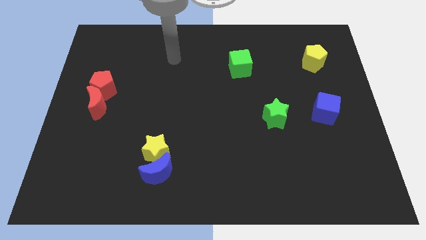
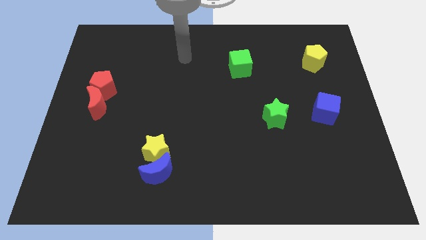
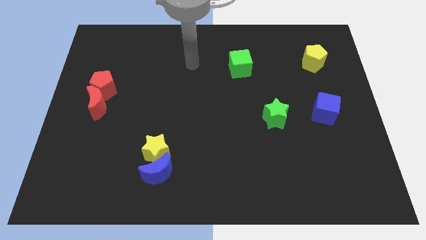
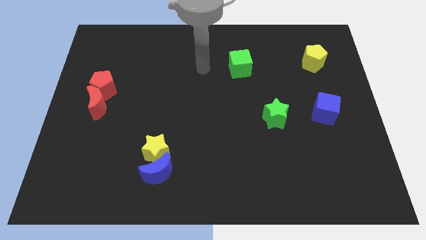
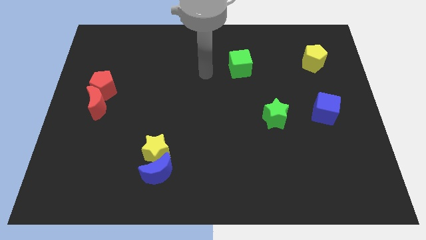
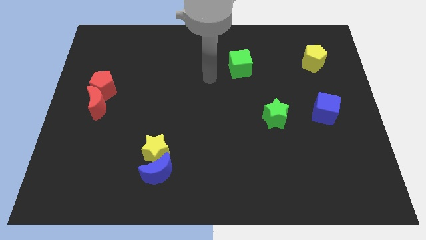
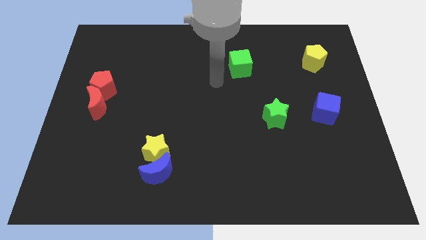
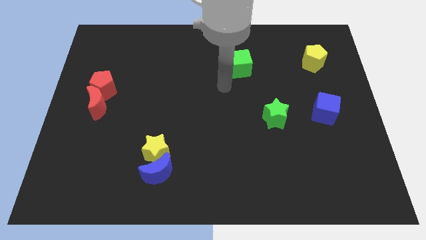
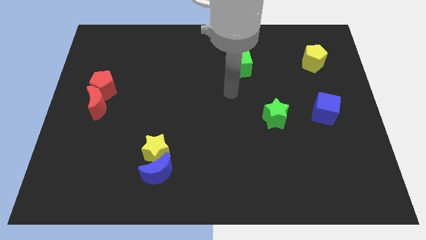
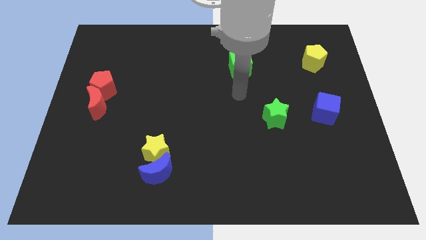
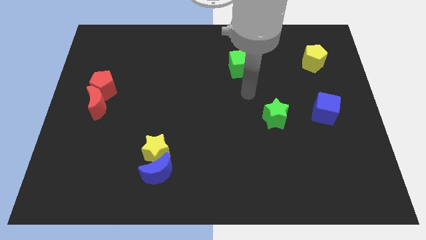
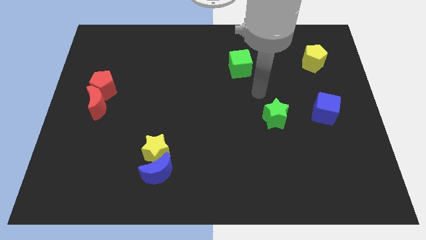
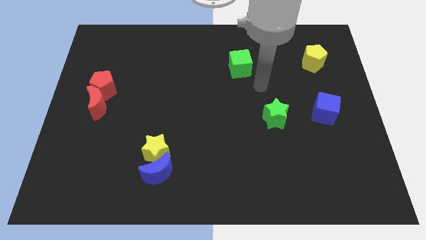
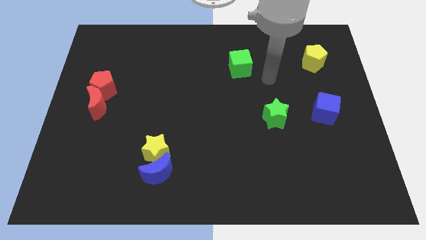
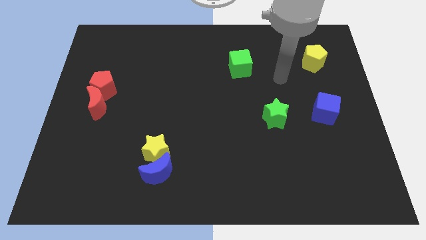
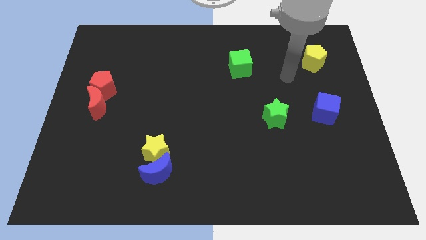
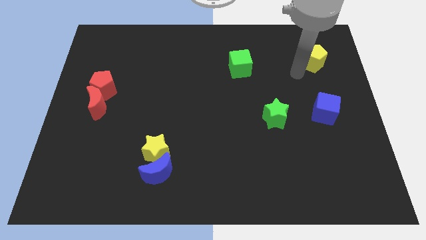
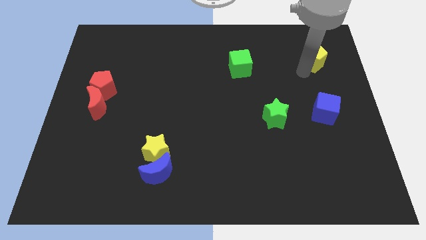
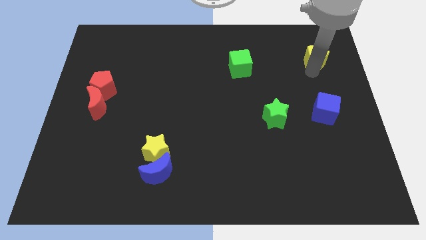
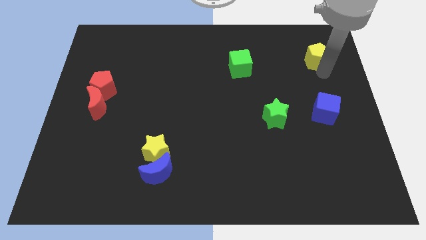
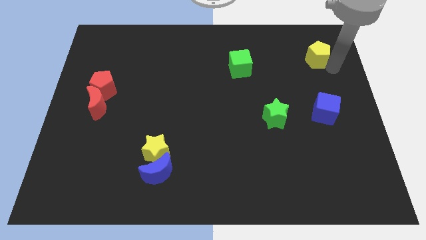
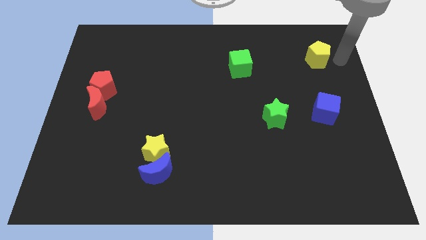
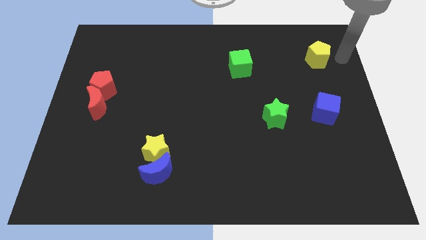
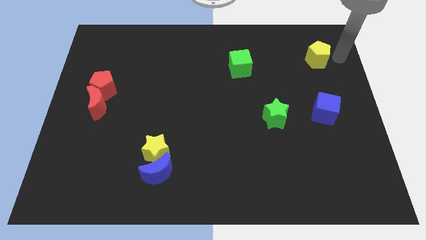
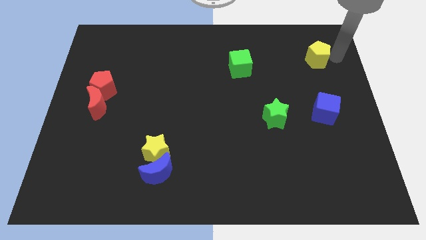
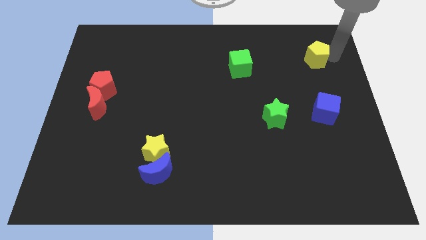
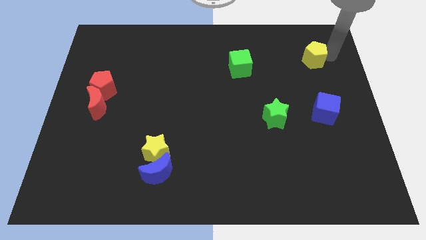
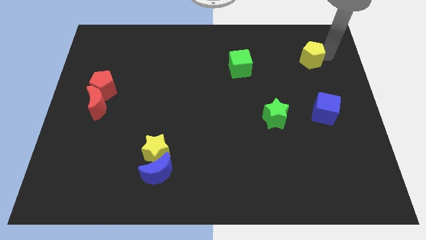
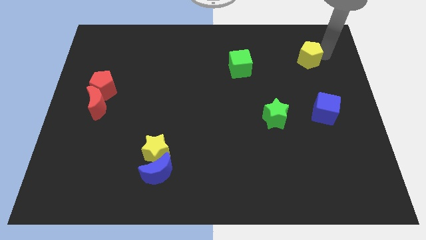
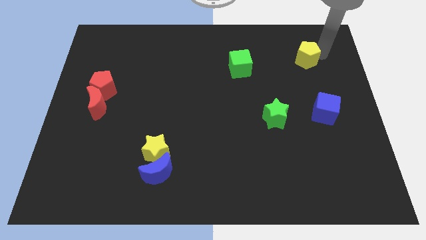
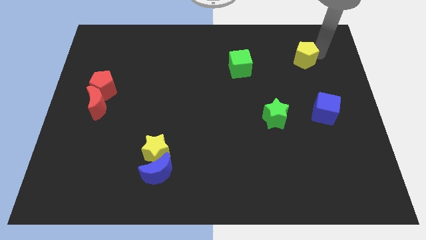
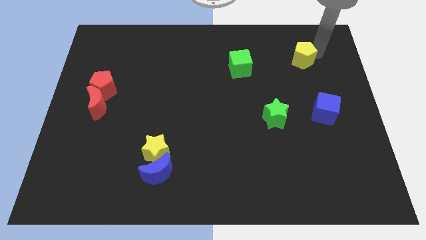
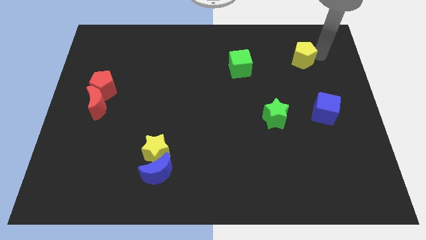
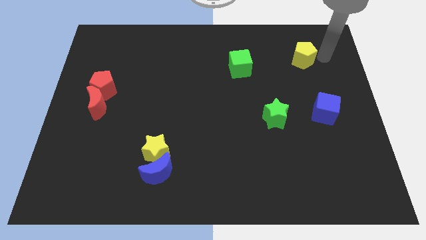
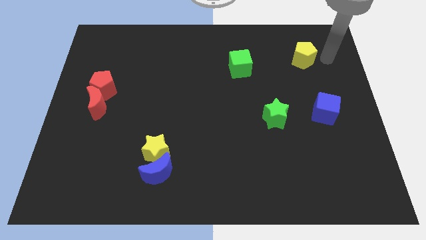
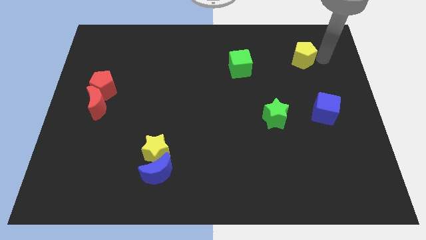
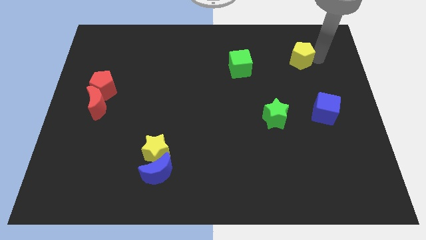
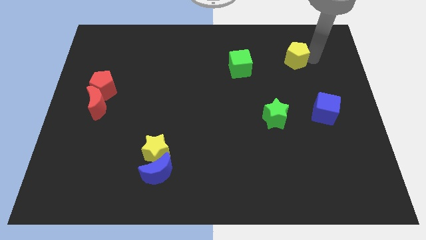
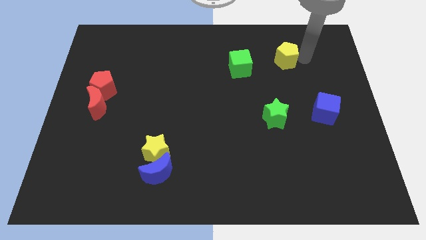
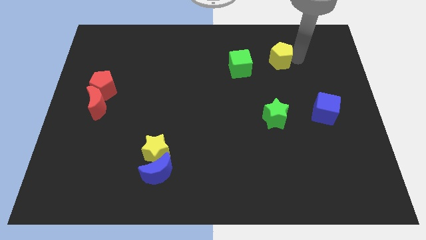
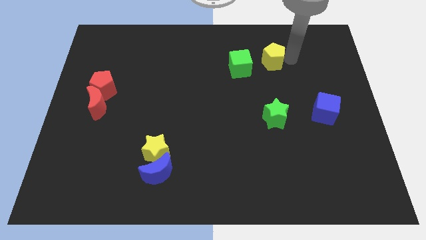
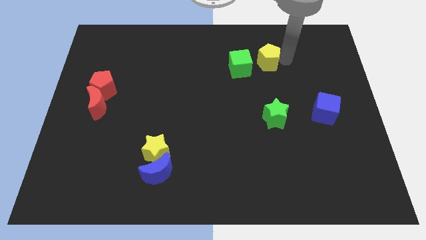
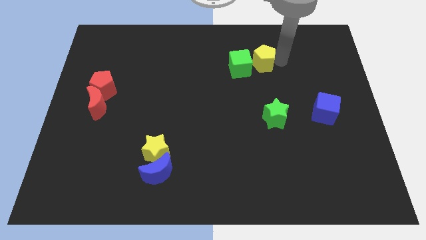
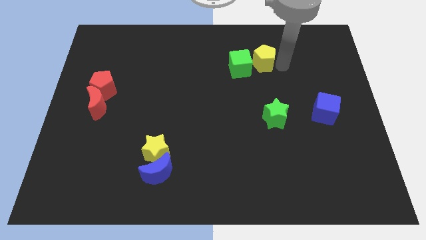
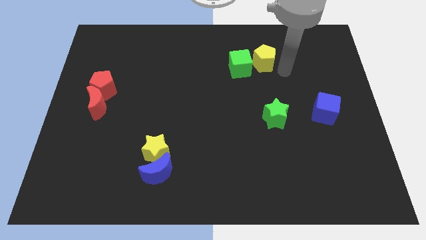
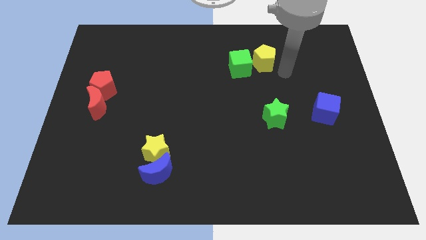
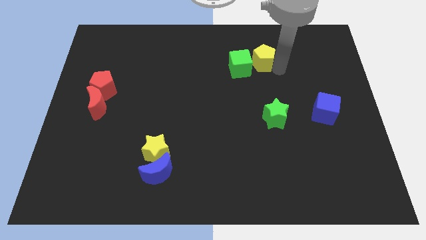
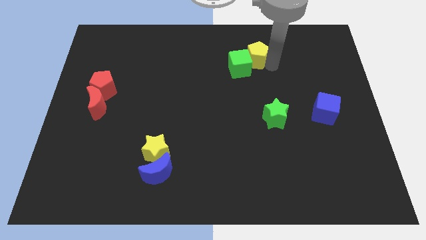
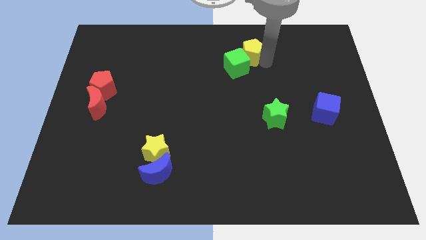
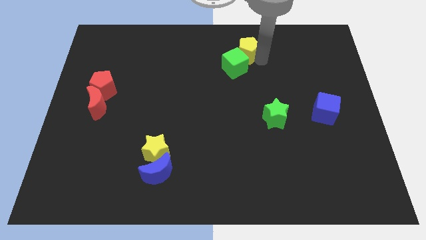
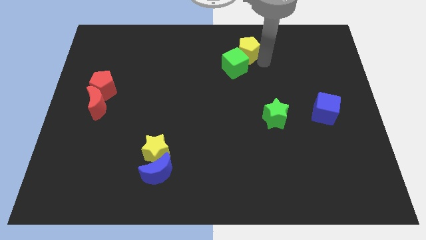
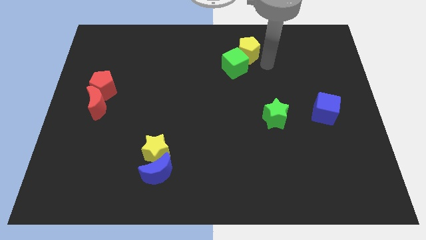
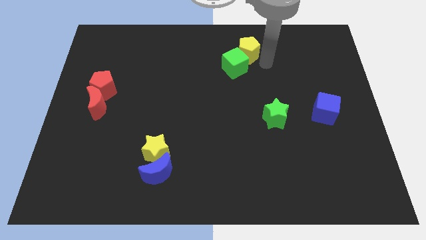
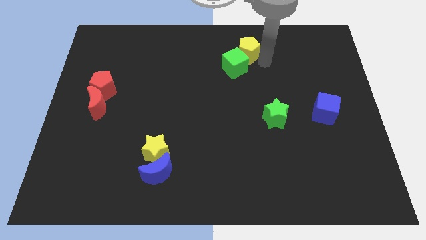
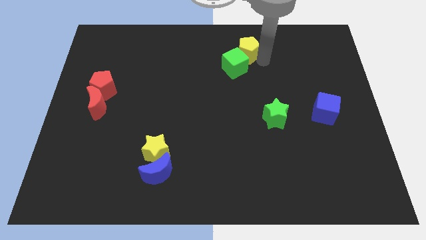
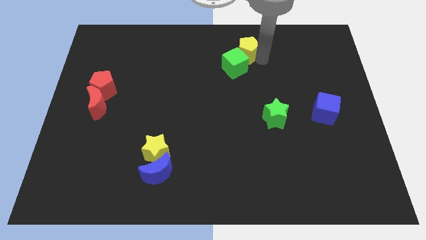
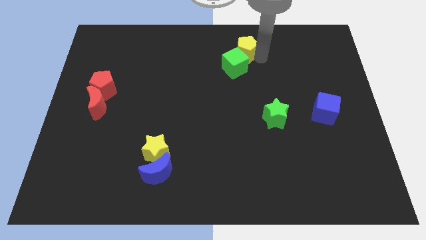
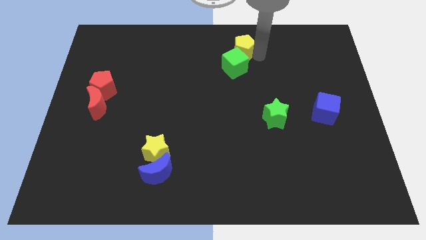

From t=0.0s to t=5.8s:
push the yellow pentagon to the towards your base
